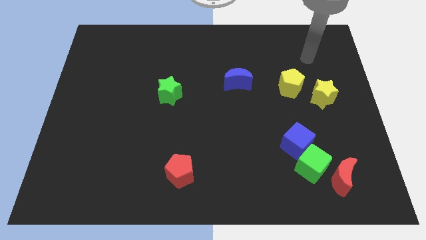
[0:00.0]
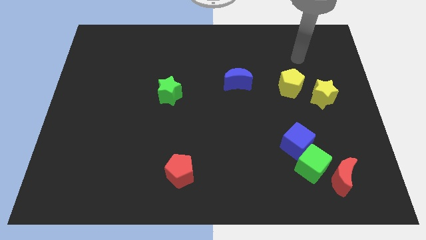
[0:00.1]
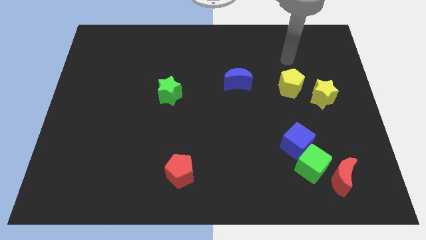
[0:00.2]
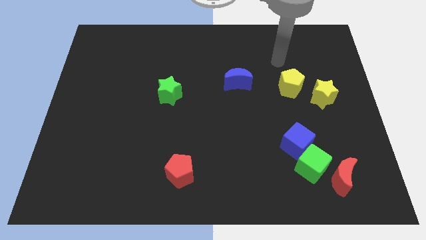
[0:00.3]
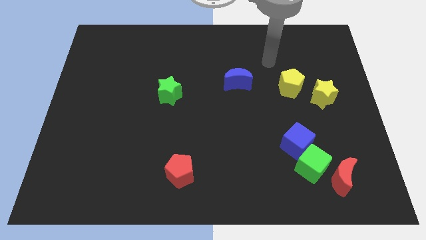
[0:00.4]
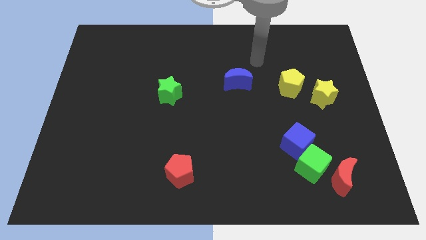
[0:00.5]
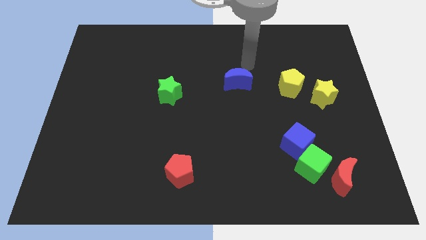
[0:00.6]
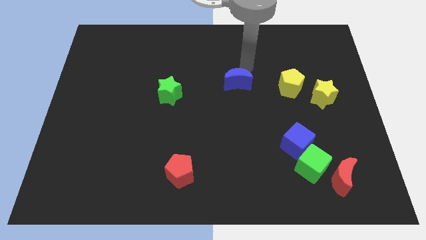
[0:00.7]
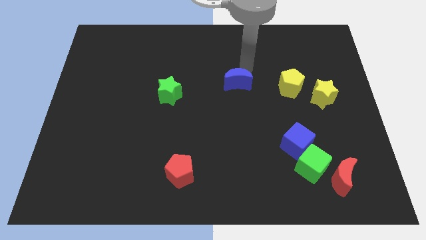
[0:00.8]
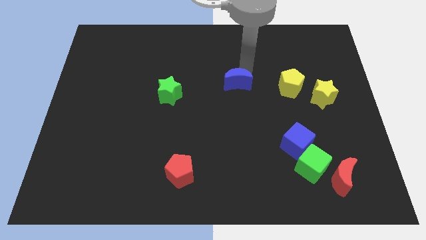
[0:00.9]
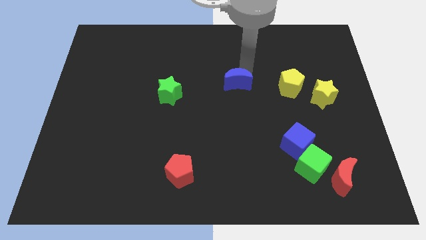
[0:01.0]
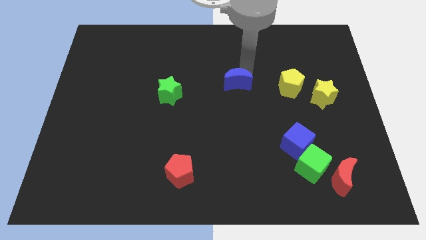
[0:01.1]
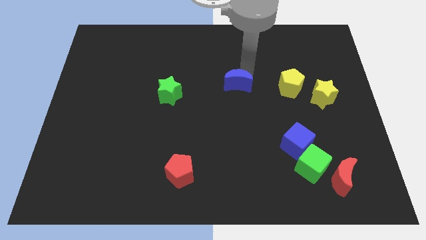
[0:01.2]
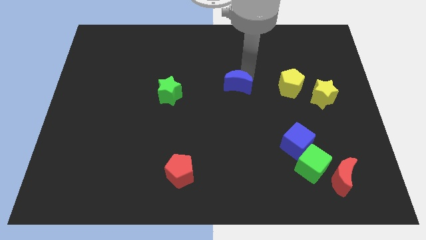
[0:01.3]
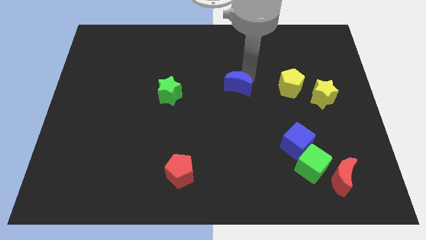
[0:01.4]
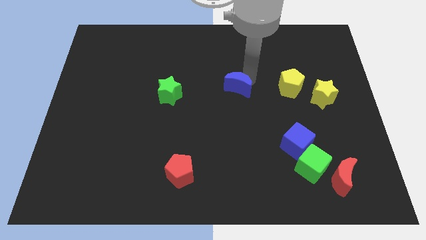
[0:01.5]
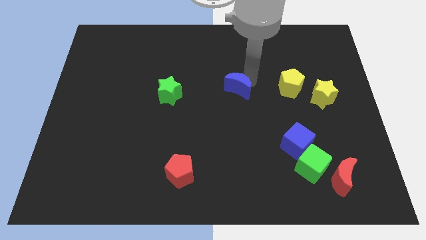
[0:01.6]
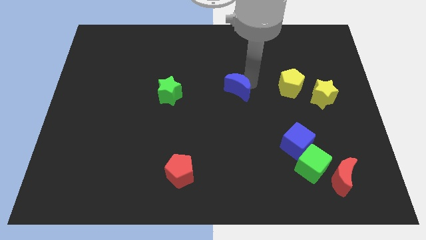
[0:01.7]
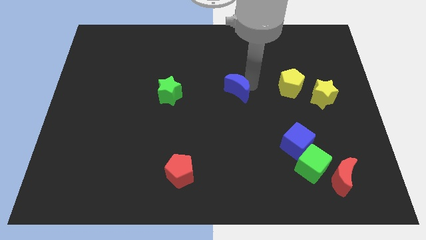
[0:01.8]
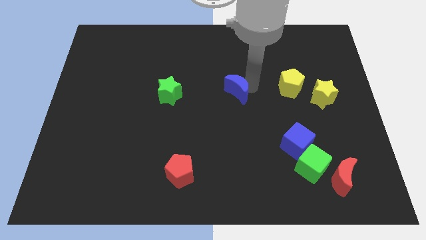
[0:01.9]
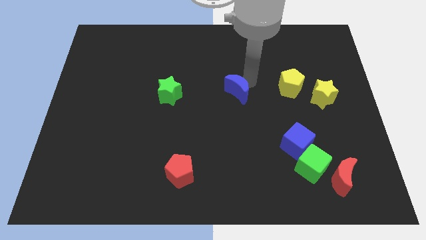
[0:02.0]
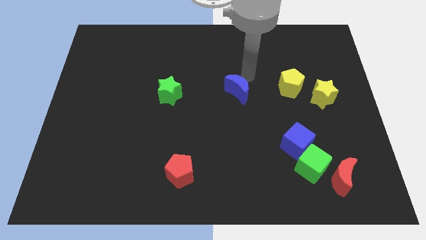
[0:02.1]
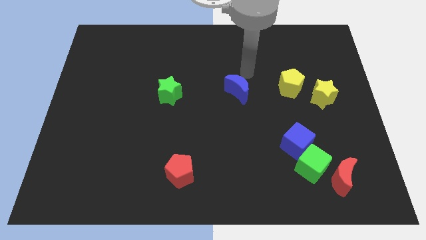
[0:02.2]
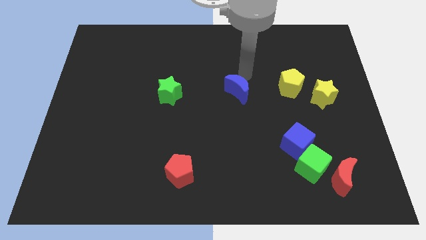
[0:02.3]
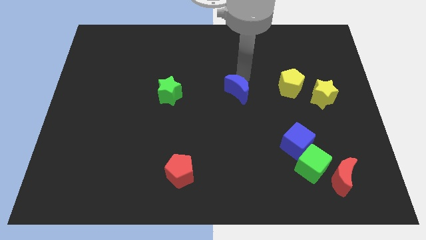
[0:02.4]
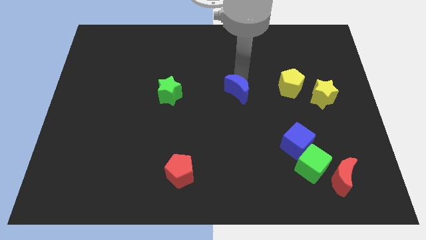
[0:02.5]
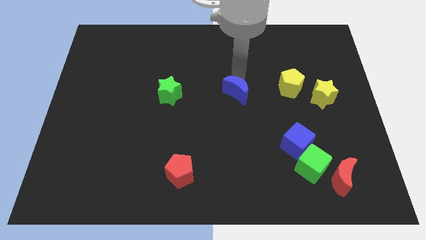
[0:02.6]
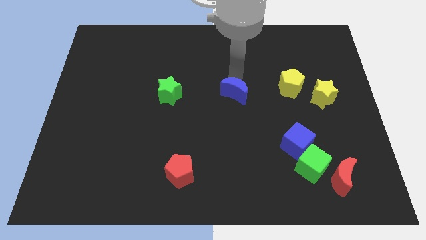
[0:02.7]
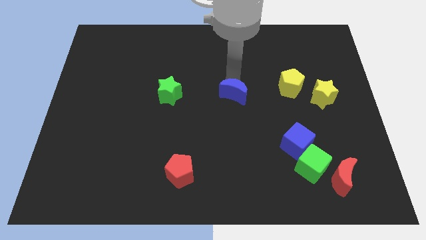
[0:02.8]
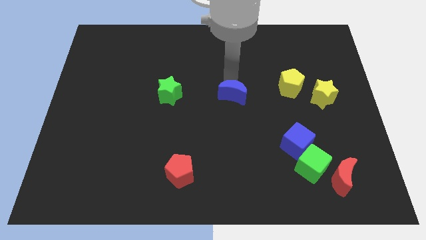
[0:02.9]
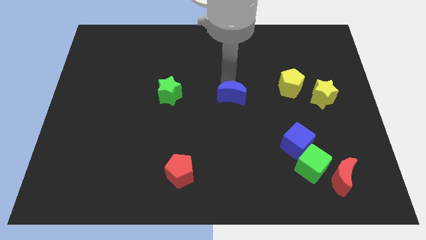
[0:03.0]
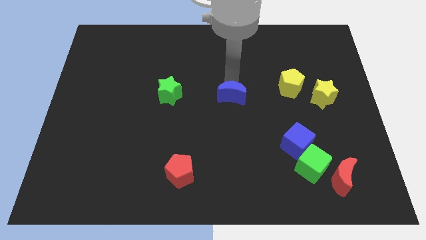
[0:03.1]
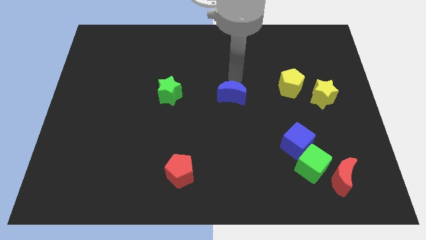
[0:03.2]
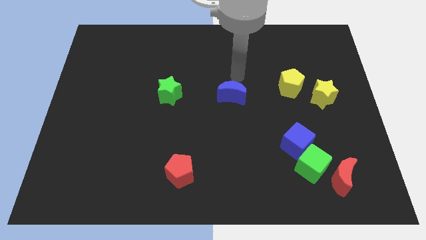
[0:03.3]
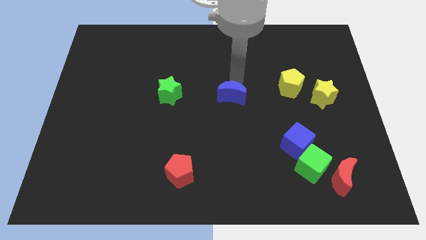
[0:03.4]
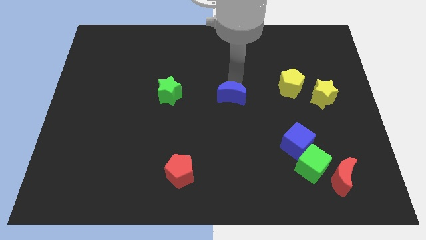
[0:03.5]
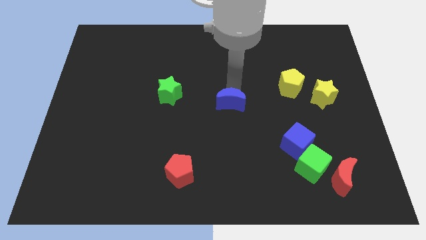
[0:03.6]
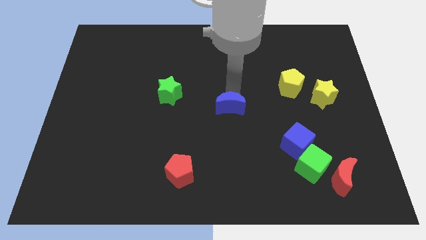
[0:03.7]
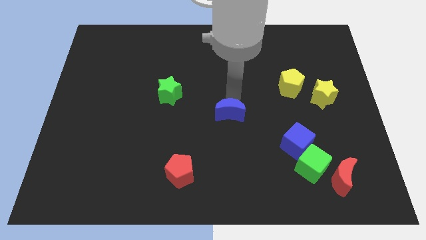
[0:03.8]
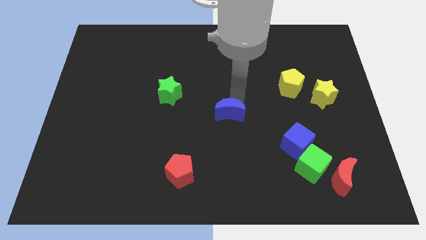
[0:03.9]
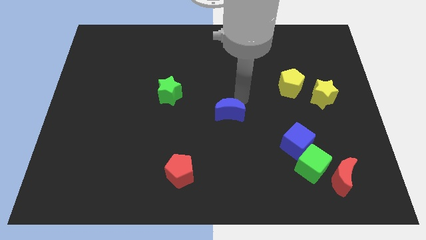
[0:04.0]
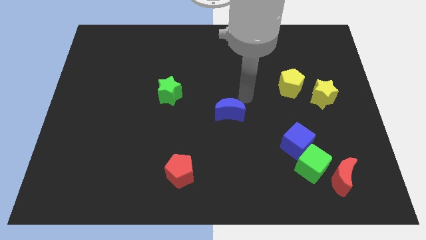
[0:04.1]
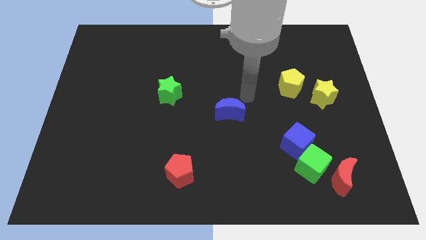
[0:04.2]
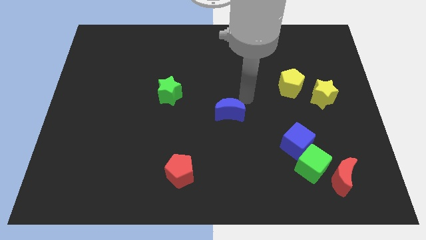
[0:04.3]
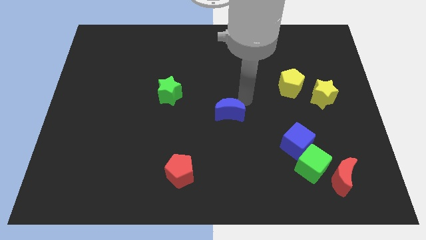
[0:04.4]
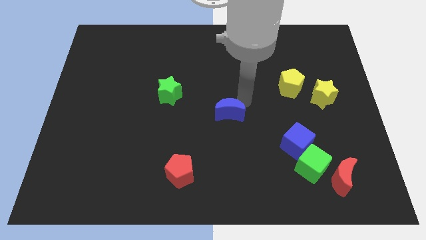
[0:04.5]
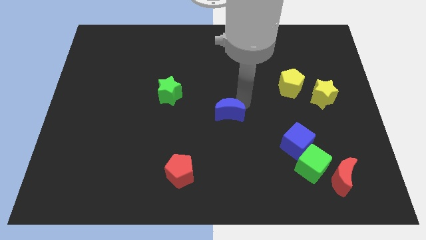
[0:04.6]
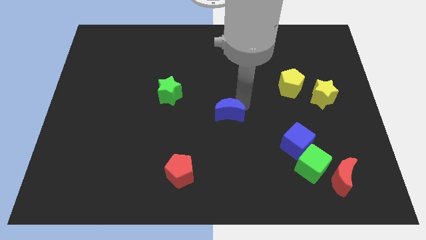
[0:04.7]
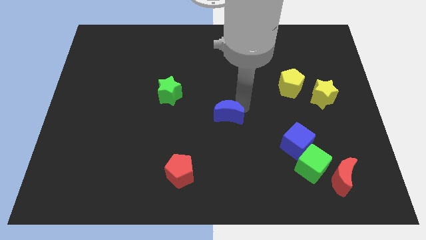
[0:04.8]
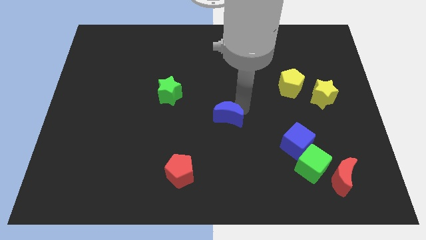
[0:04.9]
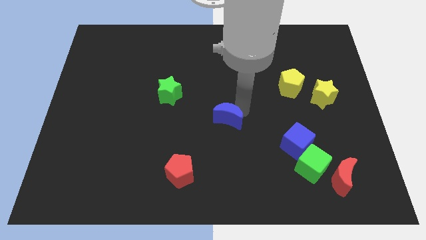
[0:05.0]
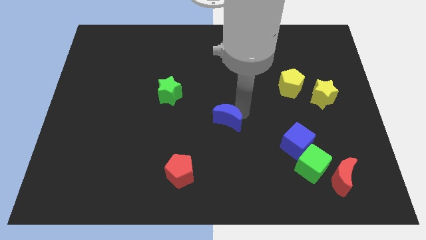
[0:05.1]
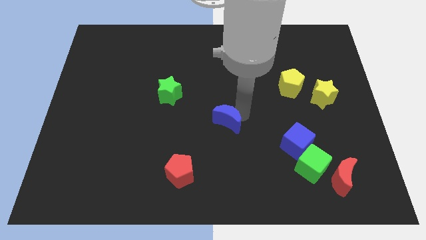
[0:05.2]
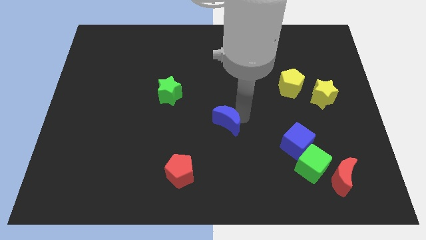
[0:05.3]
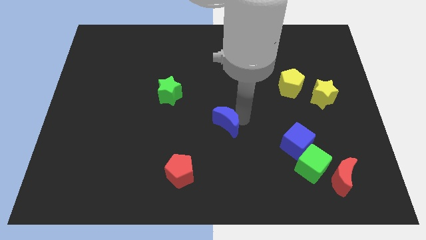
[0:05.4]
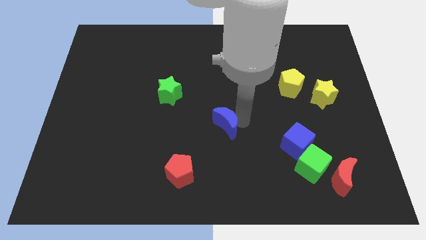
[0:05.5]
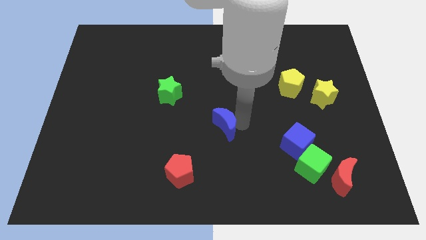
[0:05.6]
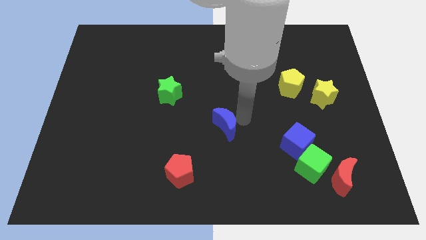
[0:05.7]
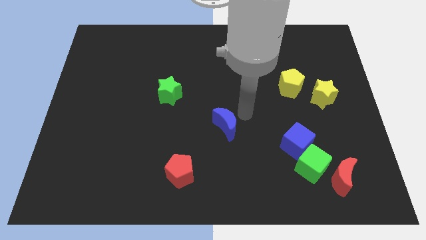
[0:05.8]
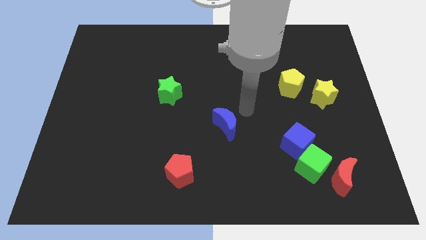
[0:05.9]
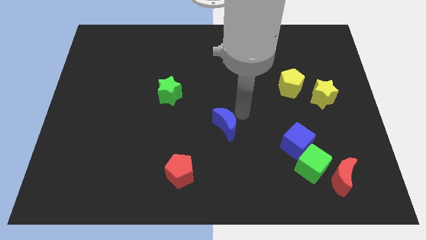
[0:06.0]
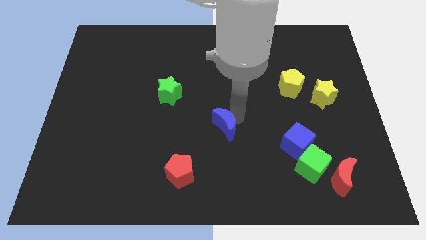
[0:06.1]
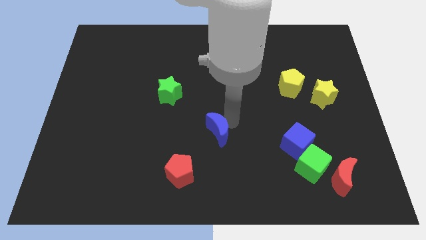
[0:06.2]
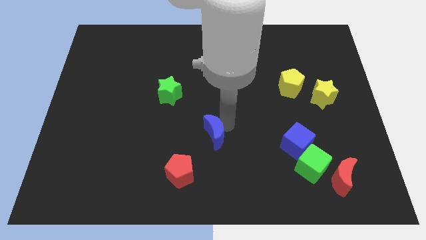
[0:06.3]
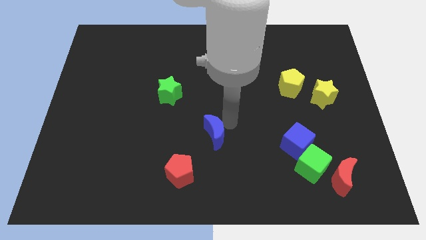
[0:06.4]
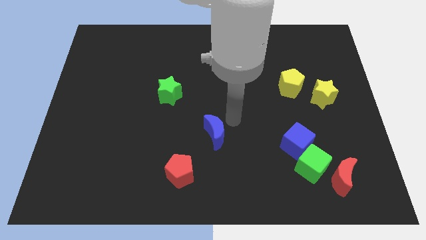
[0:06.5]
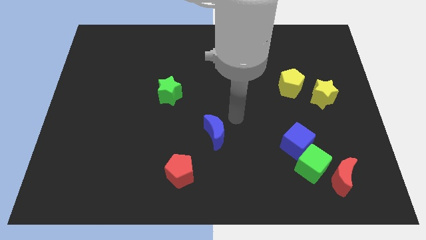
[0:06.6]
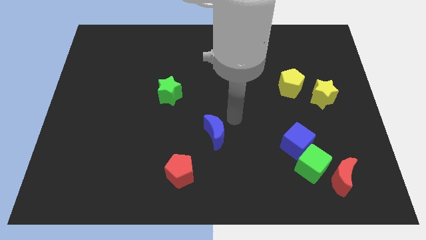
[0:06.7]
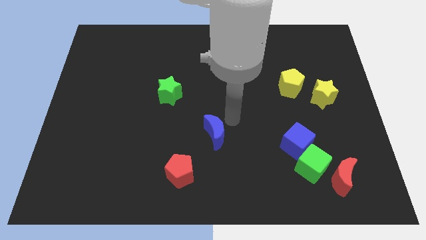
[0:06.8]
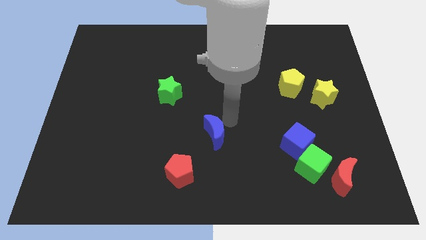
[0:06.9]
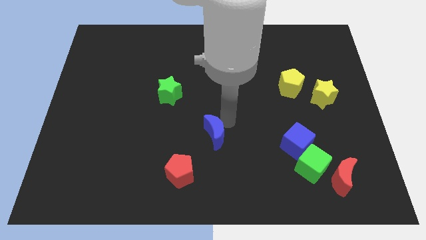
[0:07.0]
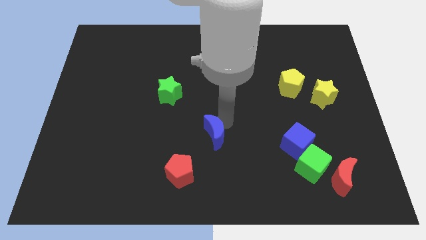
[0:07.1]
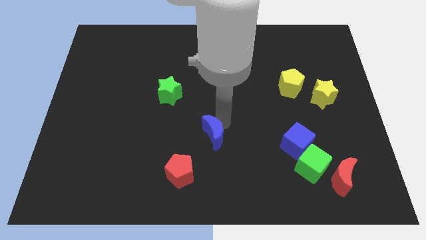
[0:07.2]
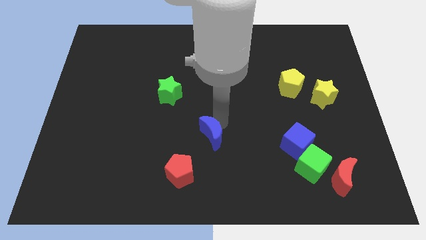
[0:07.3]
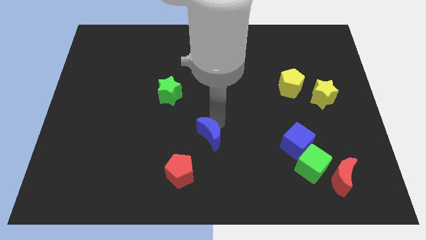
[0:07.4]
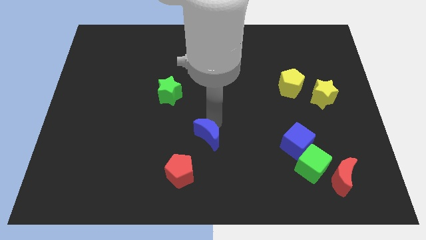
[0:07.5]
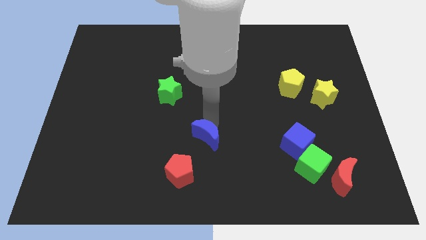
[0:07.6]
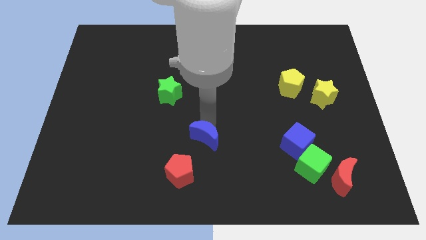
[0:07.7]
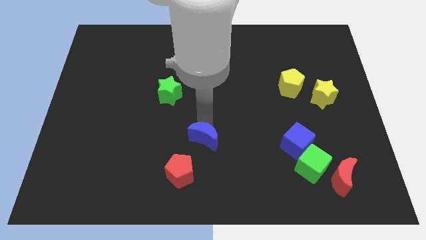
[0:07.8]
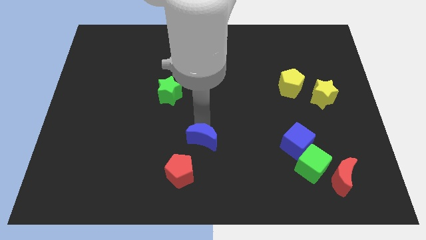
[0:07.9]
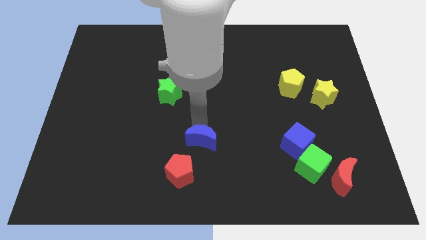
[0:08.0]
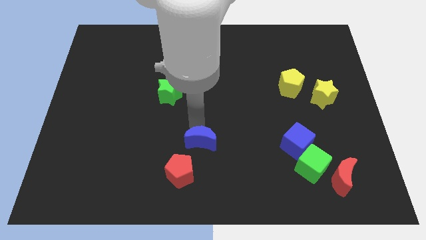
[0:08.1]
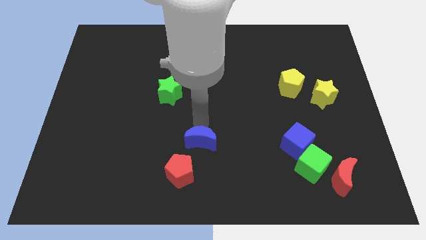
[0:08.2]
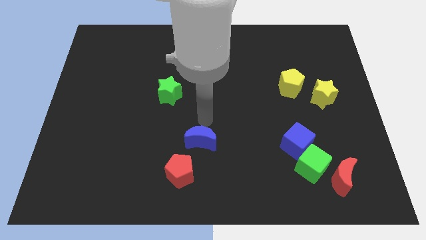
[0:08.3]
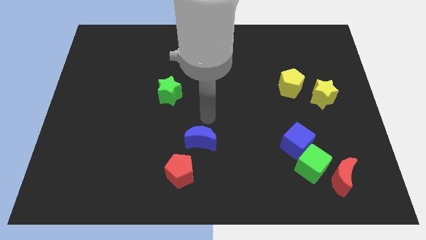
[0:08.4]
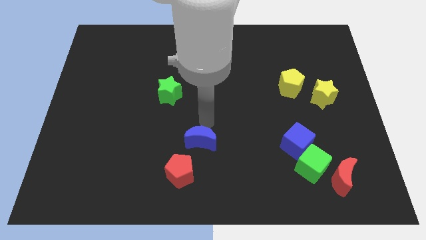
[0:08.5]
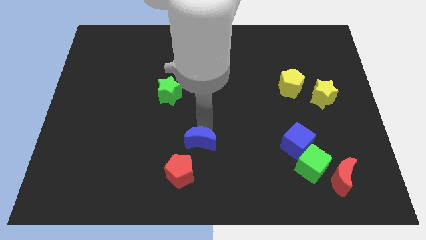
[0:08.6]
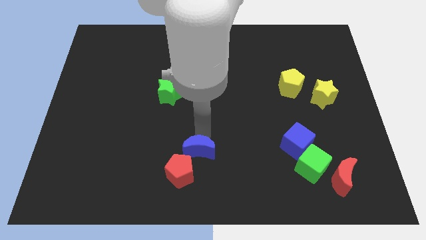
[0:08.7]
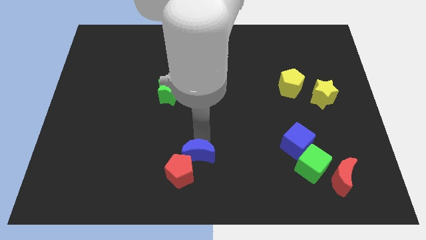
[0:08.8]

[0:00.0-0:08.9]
move the blue moon close to the red pentagon
